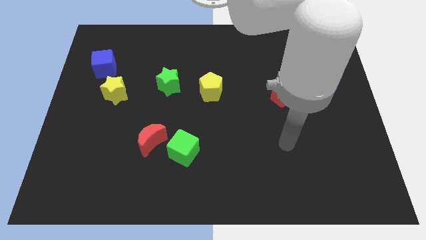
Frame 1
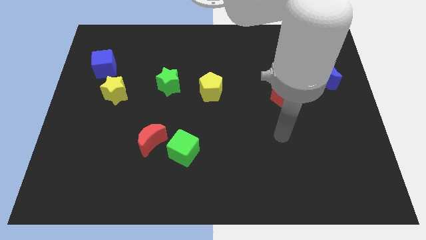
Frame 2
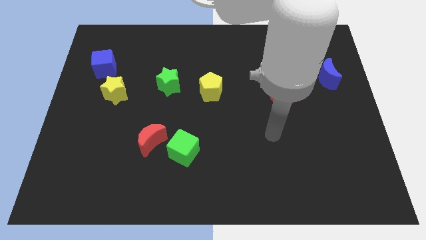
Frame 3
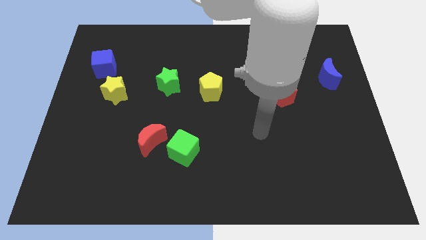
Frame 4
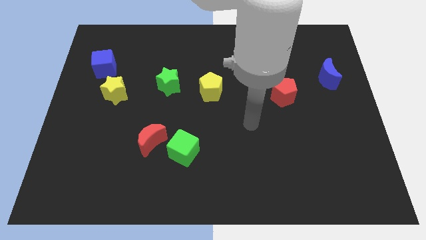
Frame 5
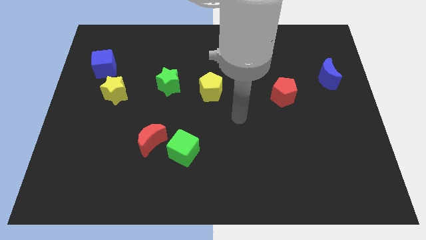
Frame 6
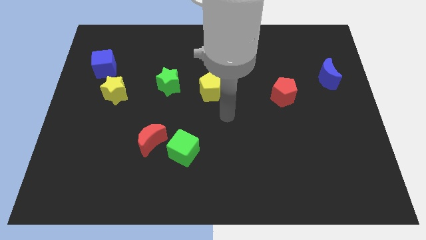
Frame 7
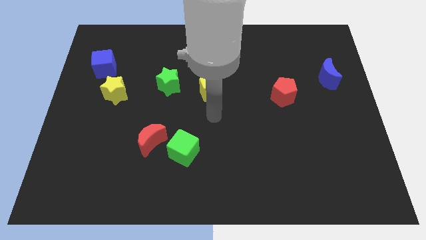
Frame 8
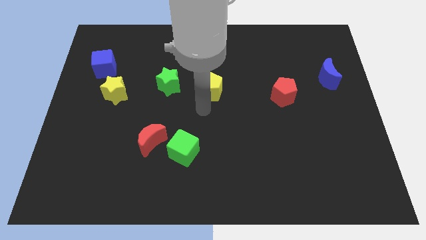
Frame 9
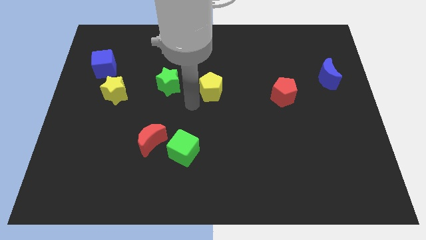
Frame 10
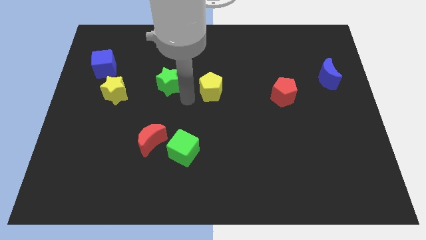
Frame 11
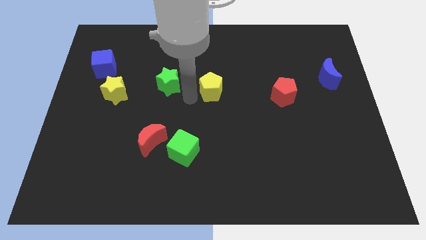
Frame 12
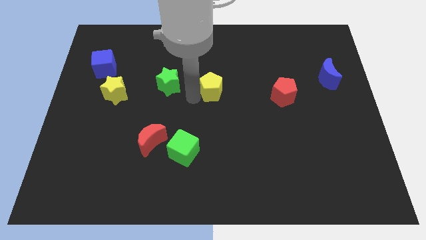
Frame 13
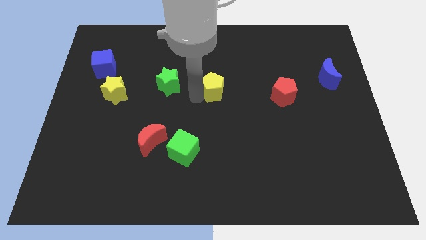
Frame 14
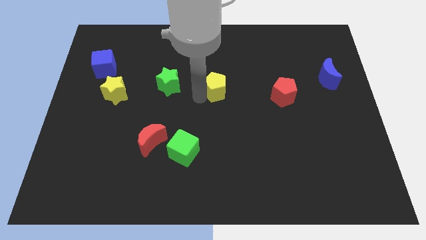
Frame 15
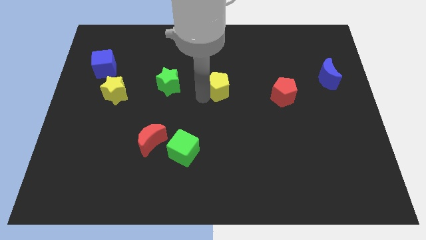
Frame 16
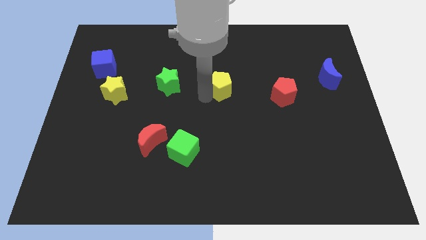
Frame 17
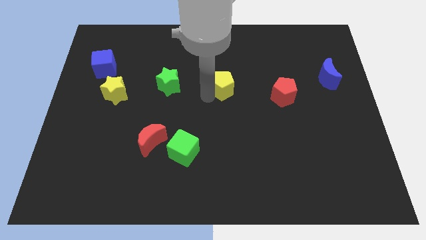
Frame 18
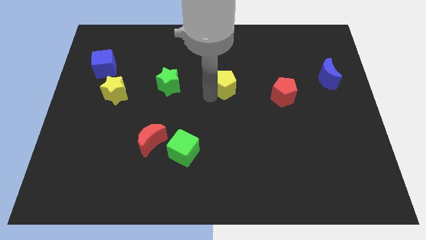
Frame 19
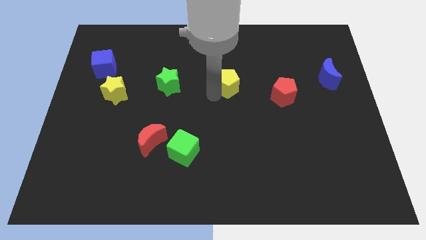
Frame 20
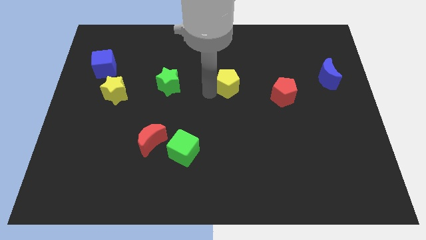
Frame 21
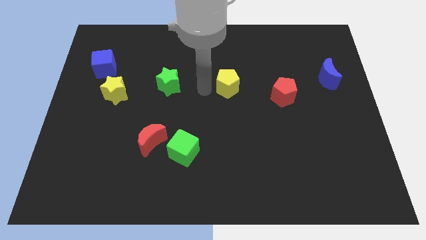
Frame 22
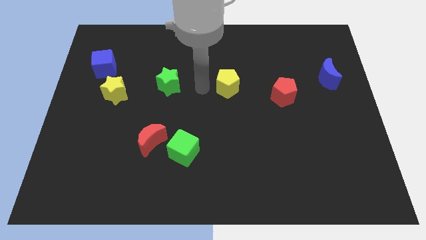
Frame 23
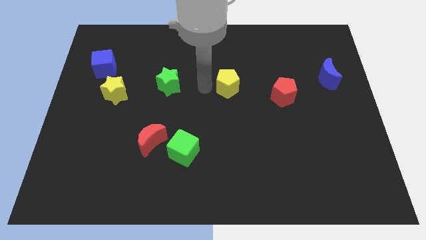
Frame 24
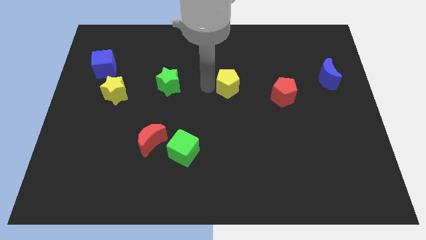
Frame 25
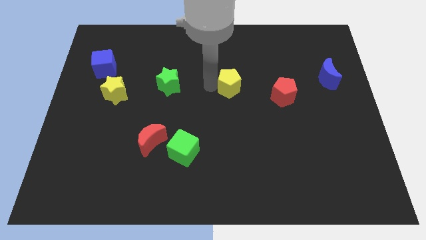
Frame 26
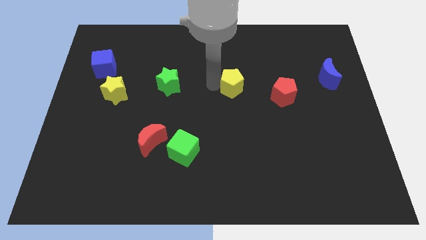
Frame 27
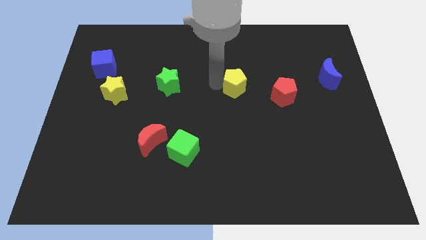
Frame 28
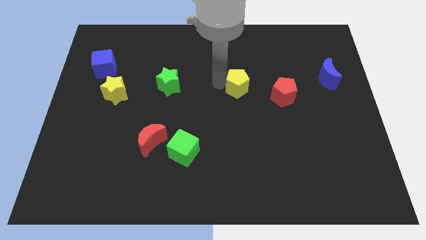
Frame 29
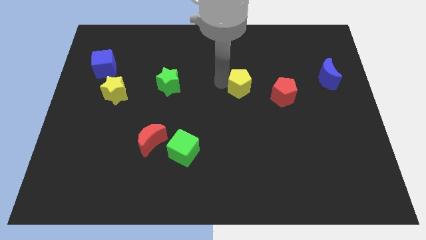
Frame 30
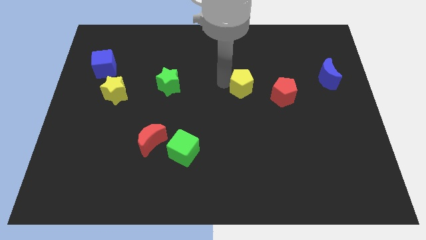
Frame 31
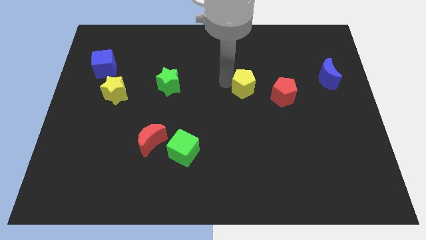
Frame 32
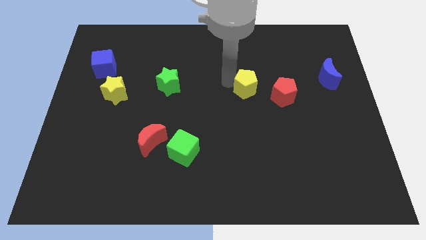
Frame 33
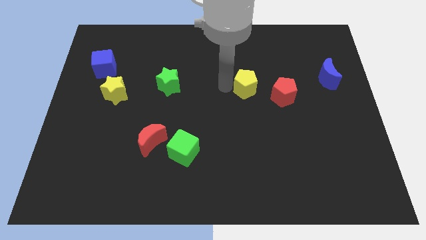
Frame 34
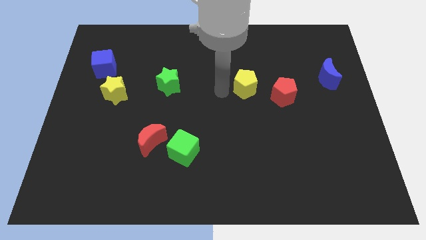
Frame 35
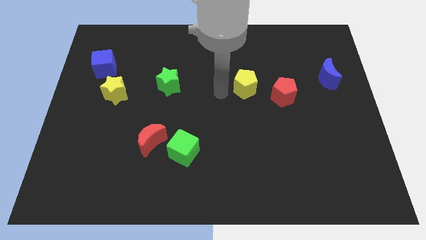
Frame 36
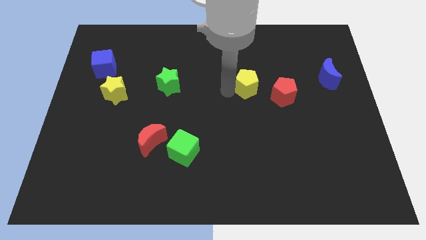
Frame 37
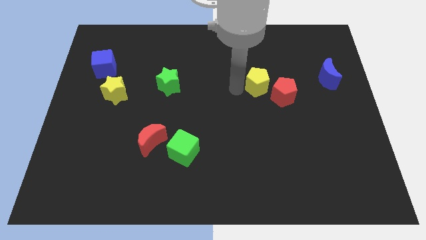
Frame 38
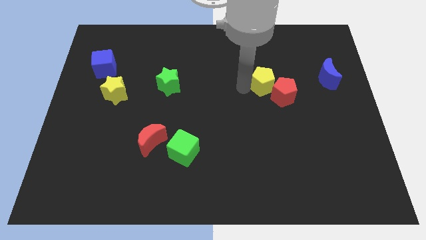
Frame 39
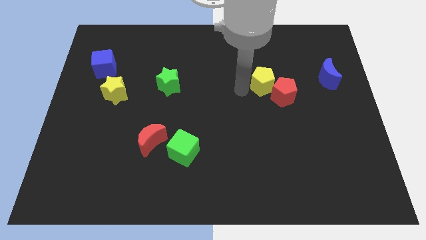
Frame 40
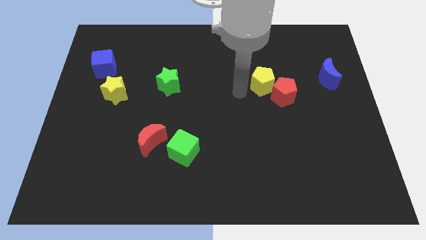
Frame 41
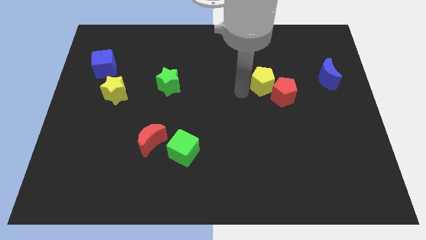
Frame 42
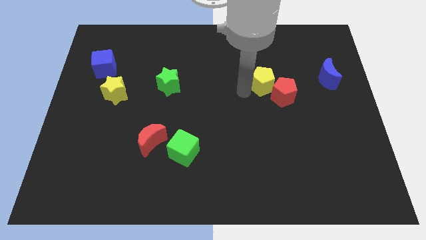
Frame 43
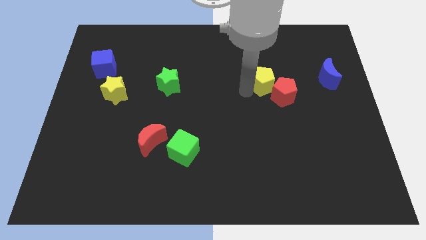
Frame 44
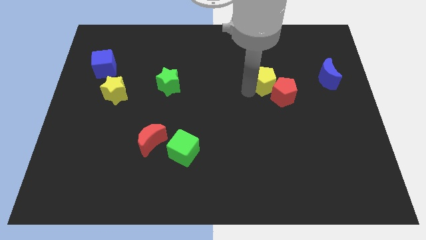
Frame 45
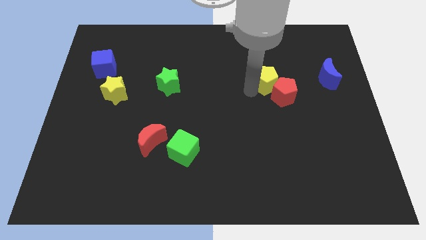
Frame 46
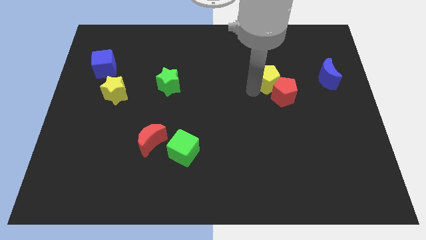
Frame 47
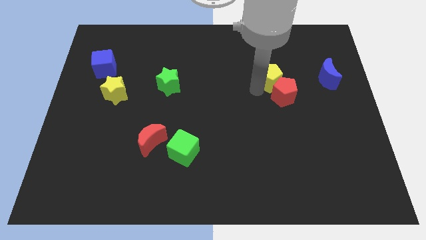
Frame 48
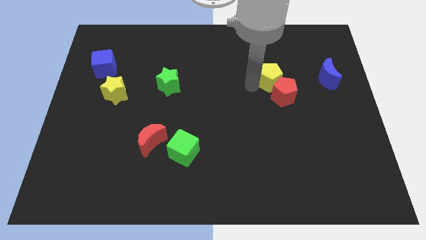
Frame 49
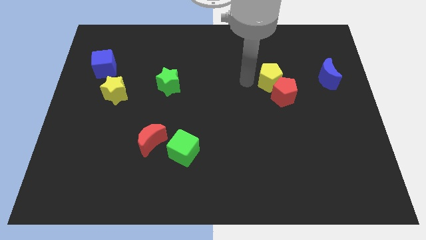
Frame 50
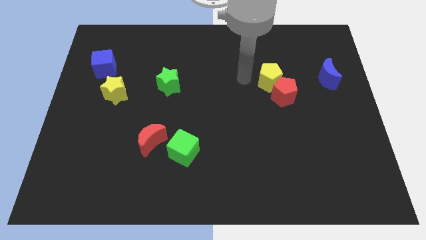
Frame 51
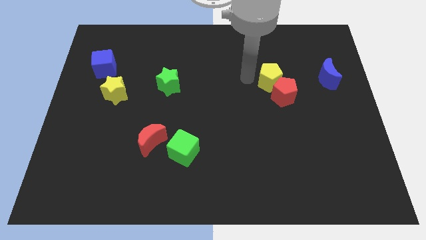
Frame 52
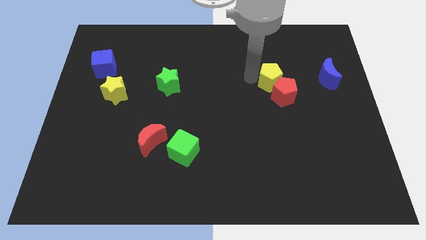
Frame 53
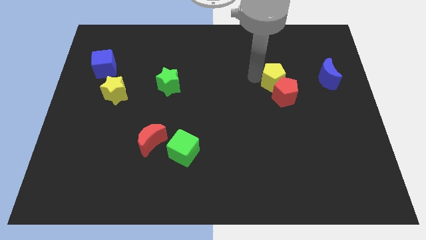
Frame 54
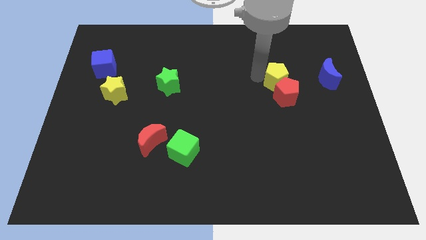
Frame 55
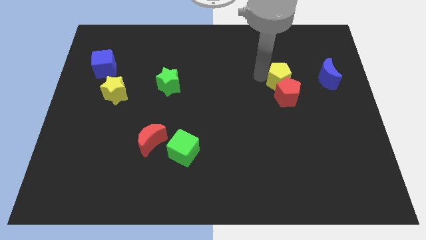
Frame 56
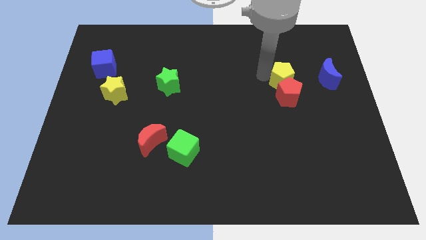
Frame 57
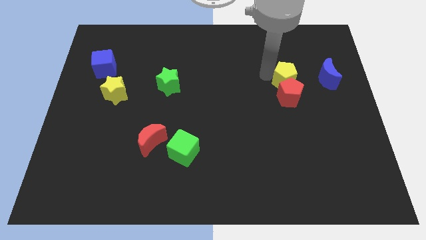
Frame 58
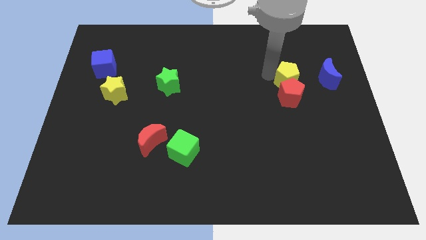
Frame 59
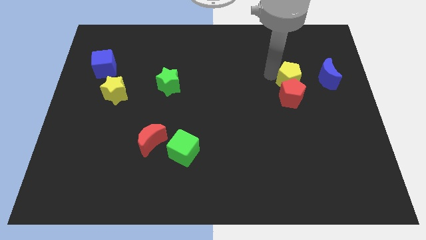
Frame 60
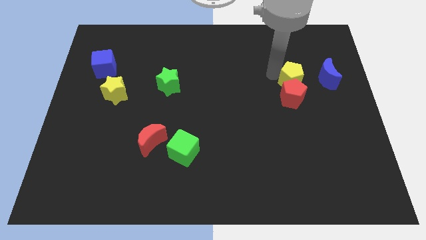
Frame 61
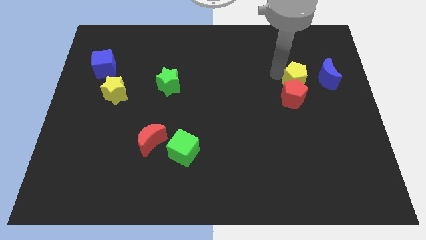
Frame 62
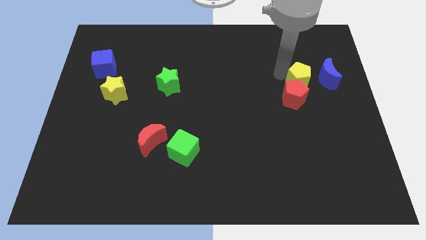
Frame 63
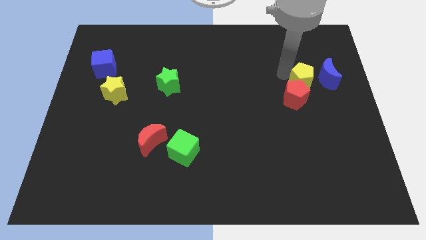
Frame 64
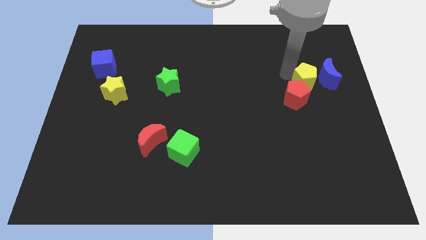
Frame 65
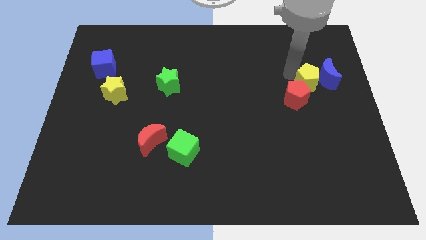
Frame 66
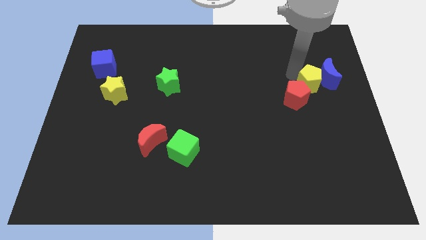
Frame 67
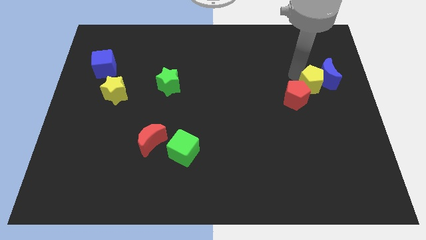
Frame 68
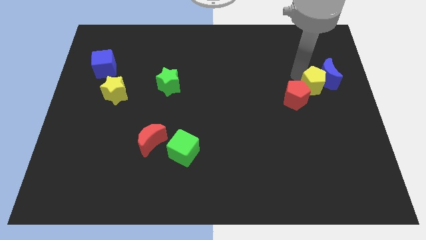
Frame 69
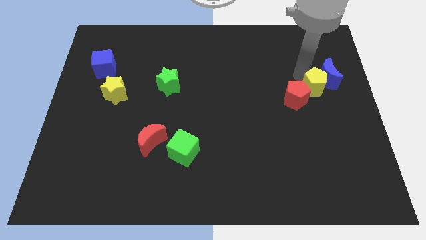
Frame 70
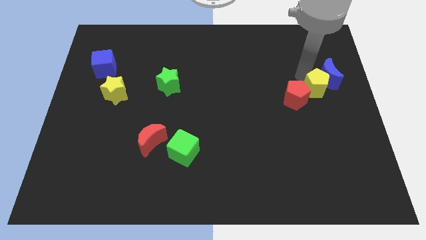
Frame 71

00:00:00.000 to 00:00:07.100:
move the yellow pentagon to the right side
